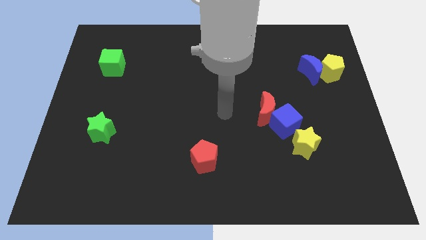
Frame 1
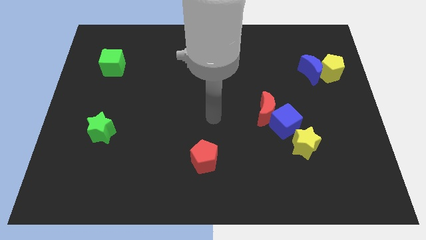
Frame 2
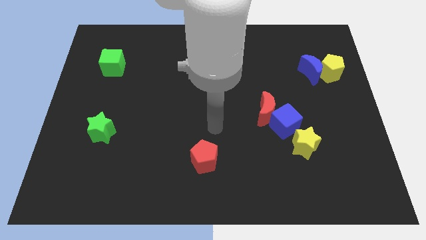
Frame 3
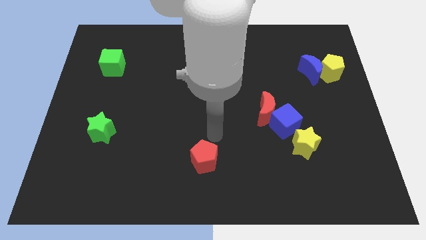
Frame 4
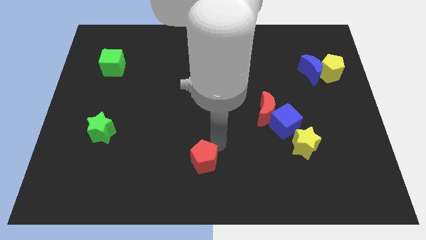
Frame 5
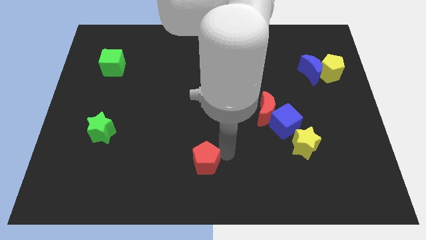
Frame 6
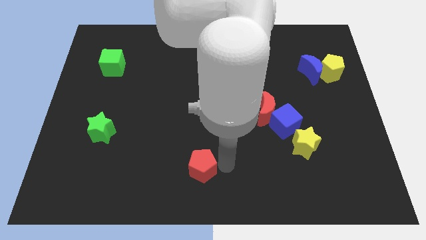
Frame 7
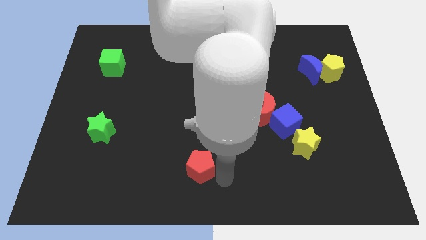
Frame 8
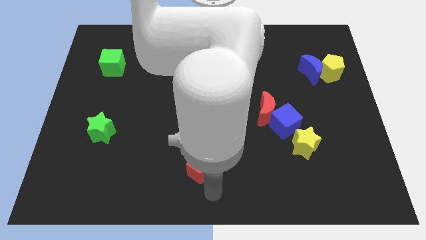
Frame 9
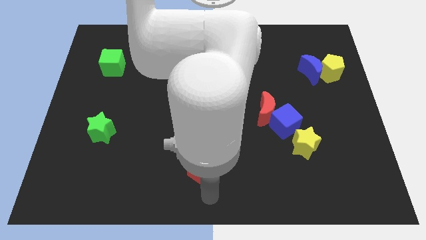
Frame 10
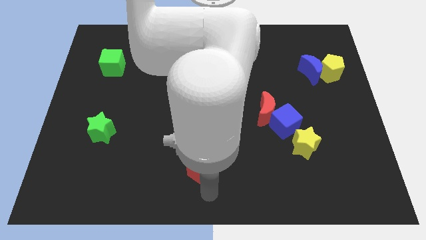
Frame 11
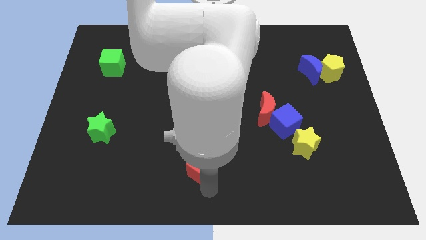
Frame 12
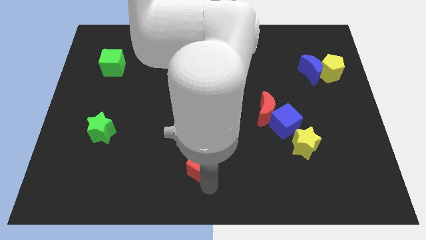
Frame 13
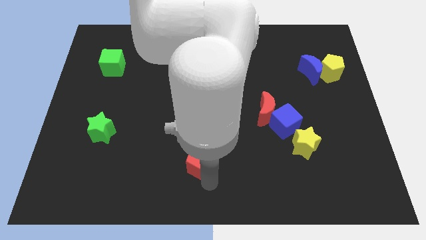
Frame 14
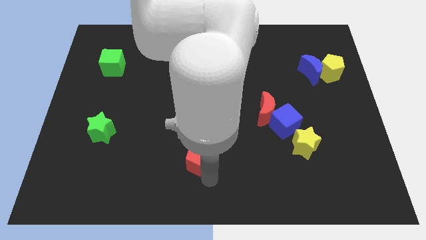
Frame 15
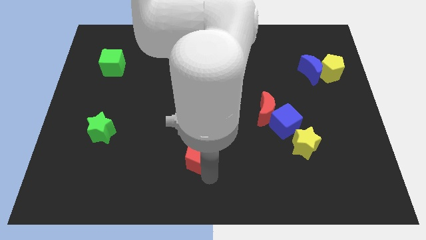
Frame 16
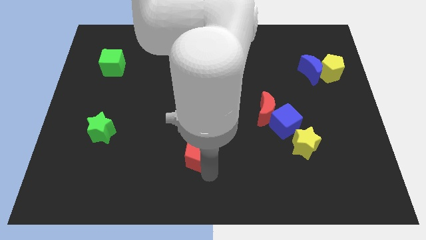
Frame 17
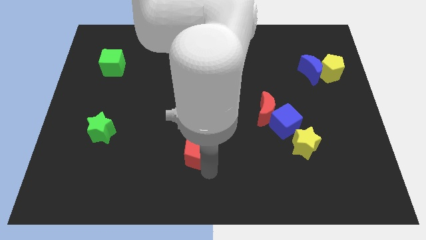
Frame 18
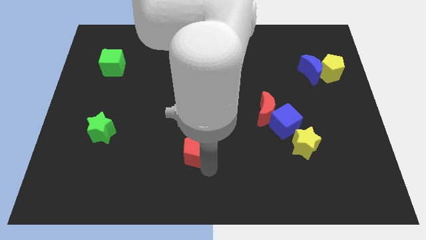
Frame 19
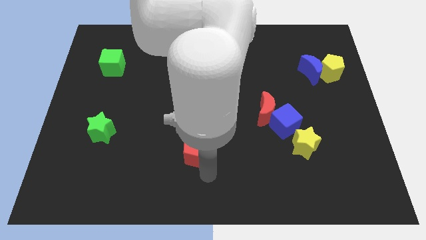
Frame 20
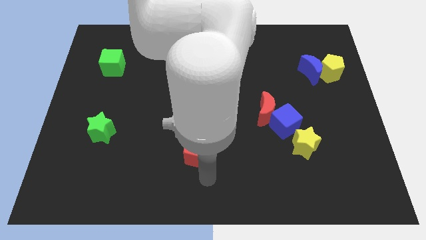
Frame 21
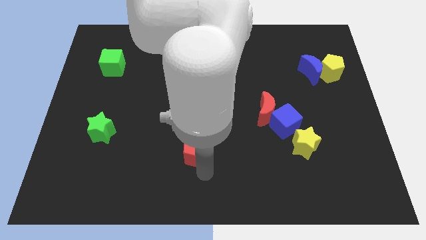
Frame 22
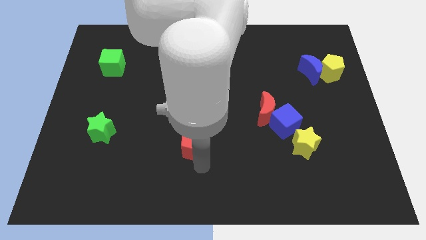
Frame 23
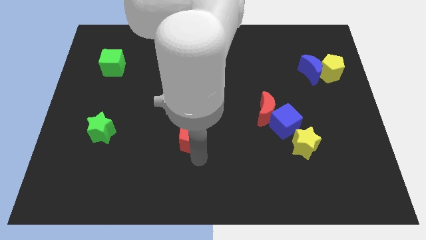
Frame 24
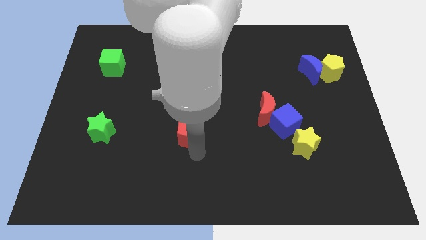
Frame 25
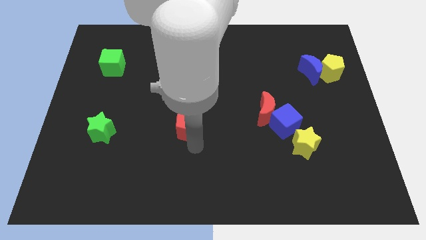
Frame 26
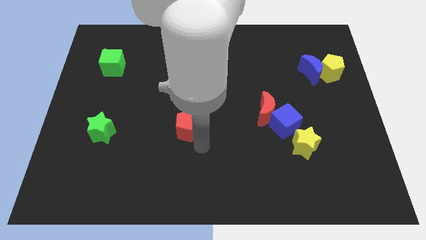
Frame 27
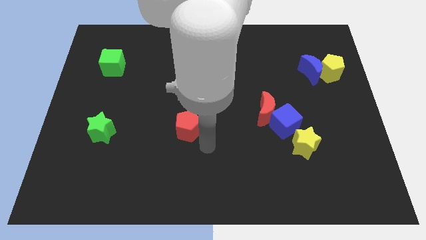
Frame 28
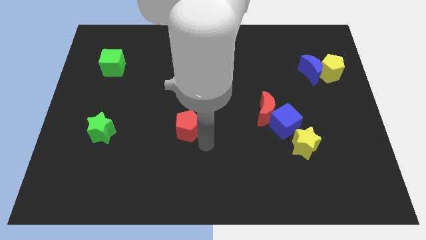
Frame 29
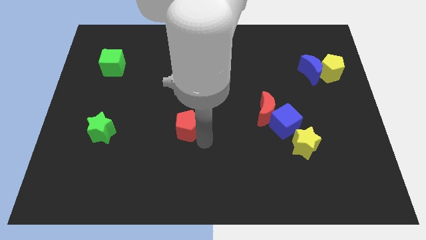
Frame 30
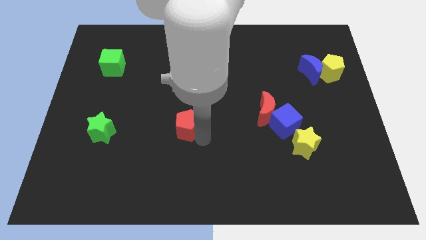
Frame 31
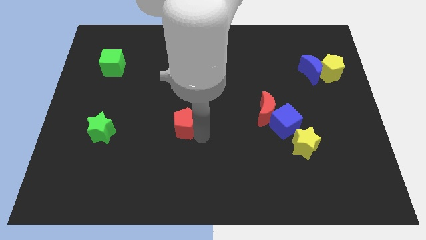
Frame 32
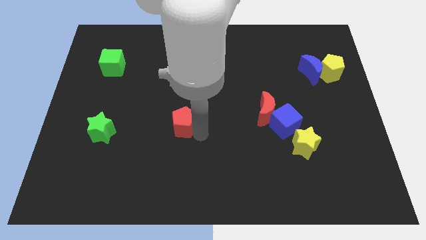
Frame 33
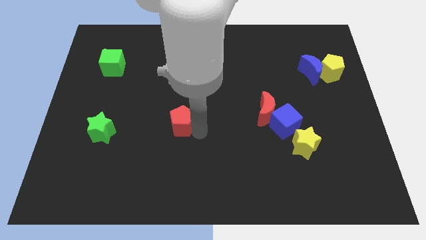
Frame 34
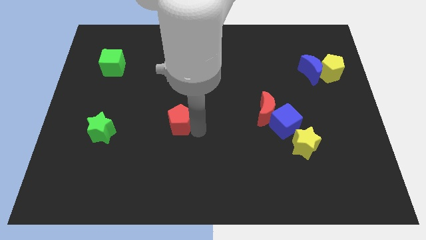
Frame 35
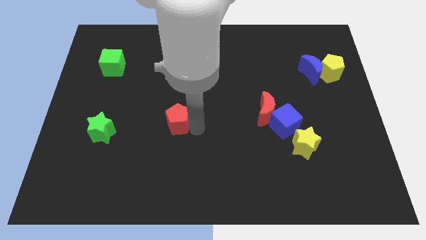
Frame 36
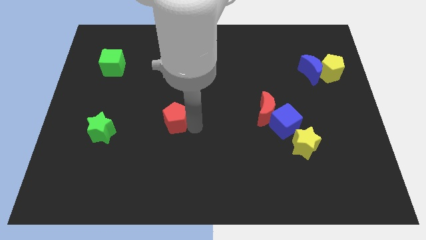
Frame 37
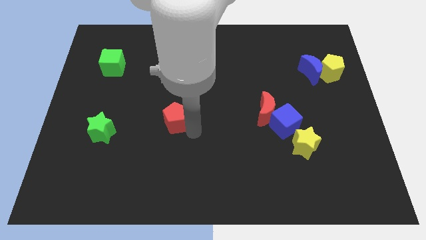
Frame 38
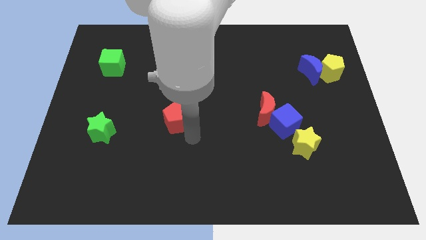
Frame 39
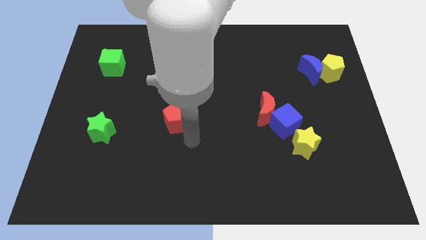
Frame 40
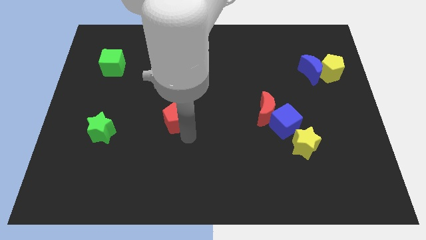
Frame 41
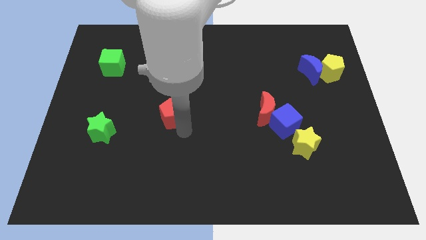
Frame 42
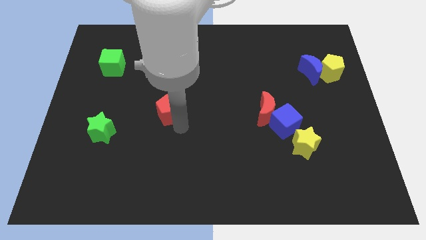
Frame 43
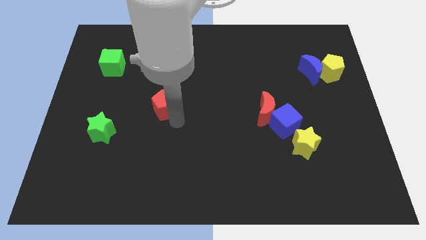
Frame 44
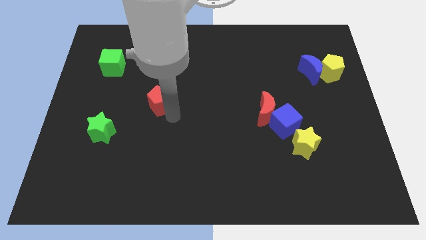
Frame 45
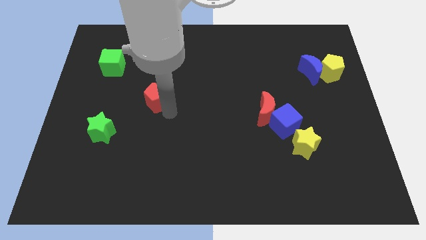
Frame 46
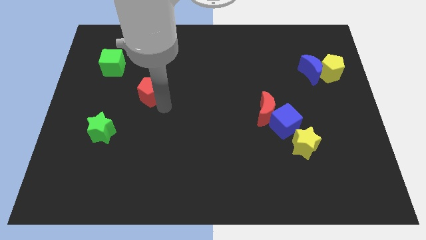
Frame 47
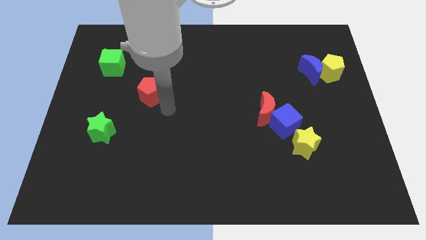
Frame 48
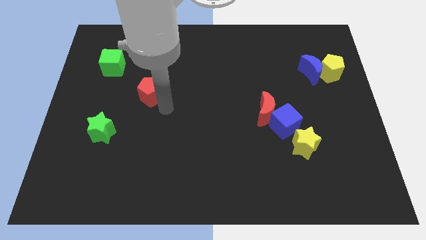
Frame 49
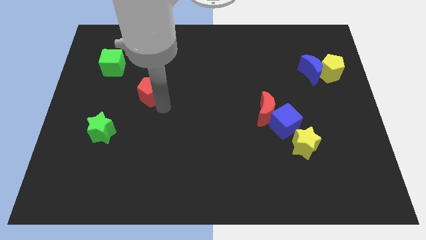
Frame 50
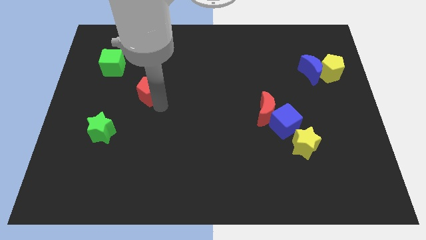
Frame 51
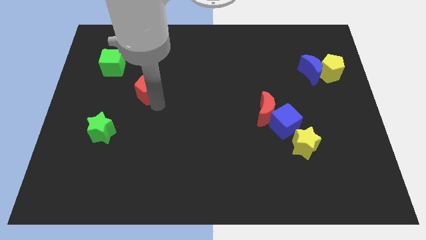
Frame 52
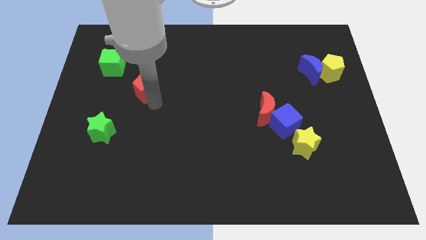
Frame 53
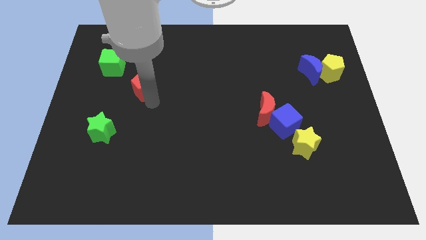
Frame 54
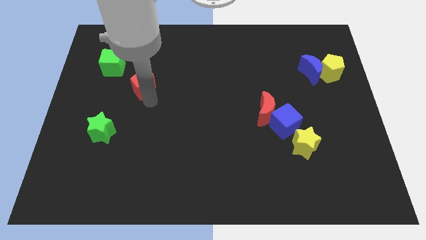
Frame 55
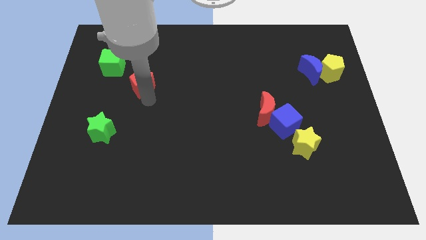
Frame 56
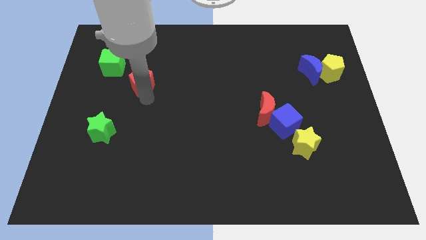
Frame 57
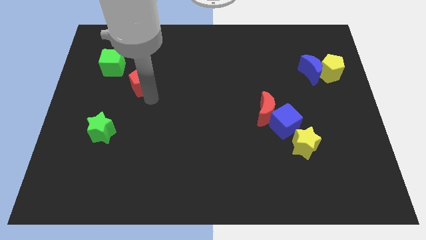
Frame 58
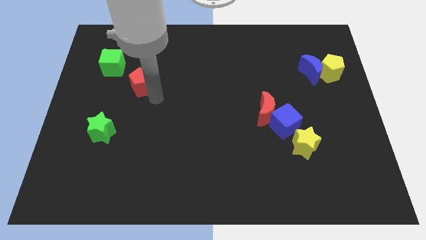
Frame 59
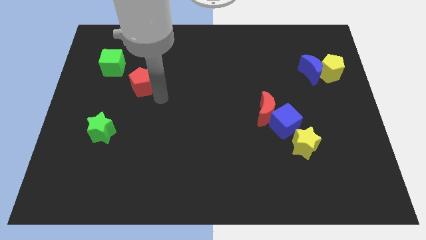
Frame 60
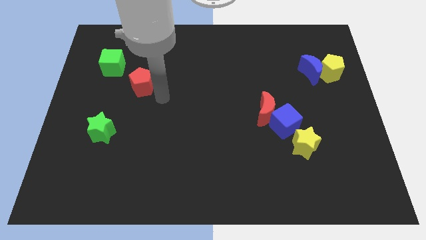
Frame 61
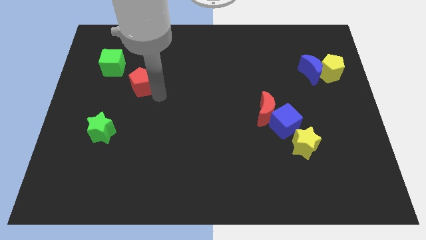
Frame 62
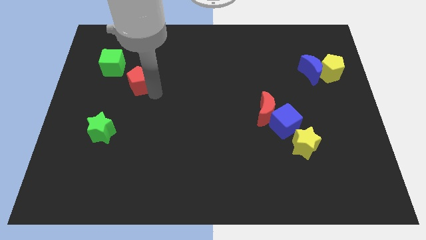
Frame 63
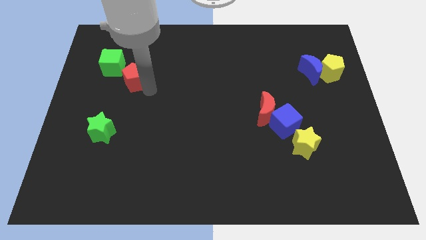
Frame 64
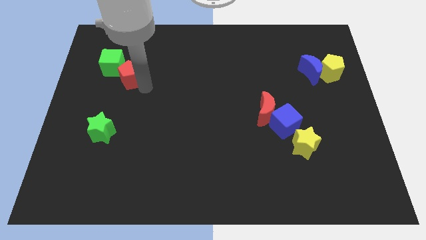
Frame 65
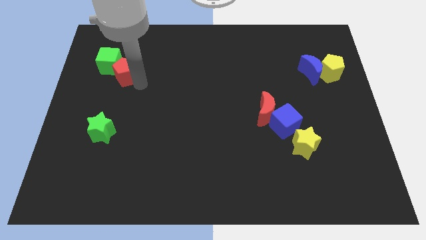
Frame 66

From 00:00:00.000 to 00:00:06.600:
slide the red pentagon to the green cube

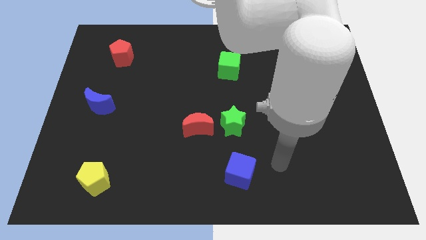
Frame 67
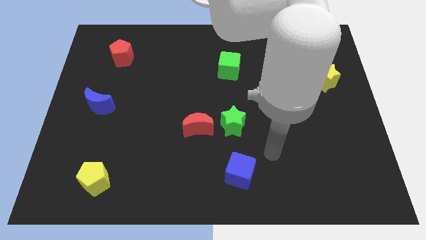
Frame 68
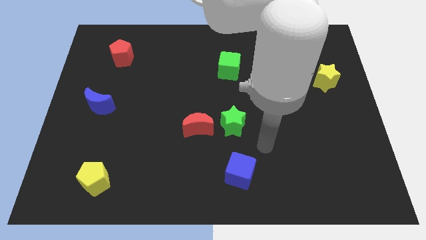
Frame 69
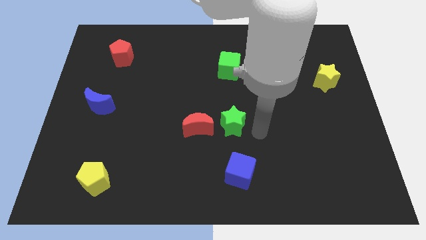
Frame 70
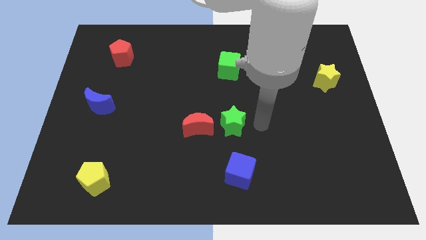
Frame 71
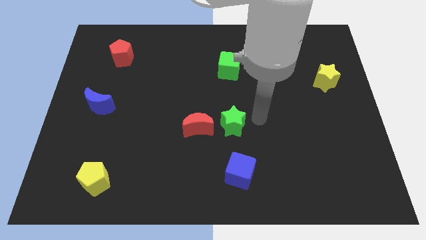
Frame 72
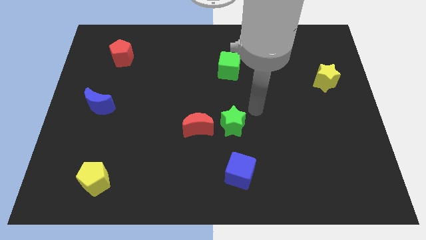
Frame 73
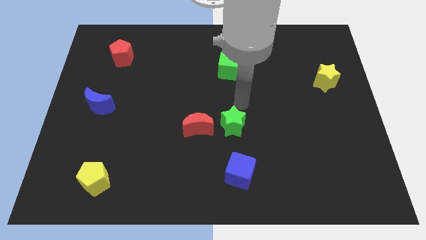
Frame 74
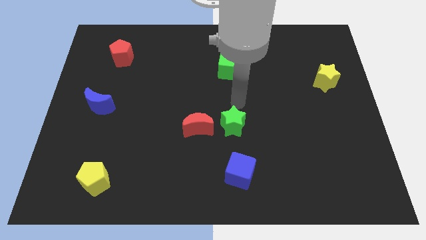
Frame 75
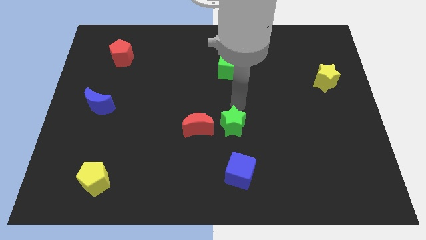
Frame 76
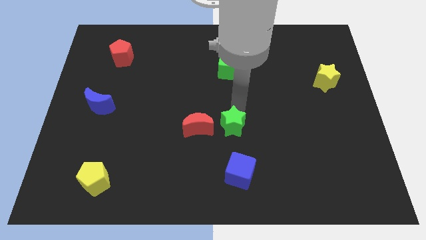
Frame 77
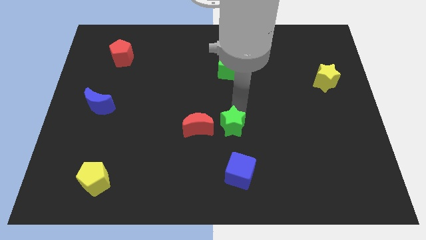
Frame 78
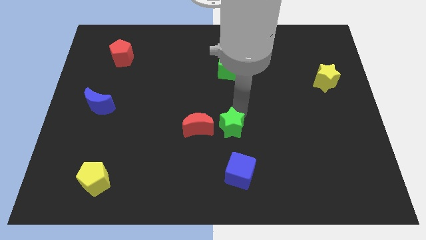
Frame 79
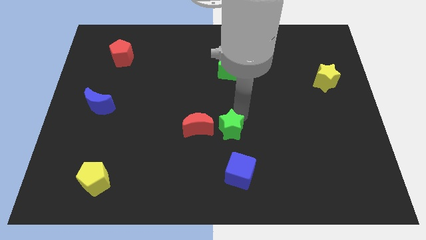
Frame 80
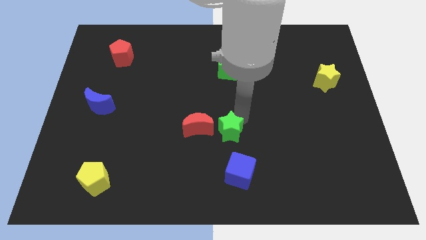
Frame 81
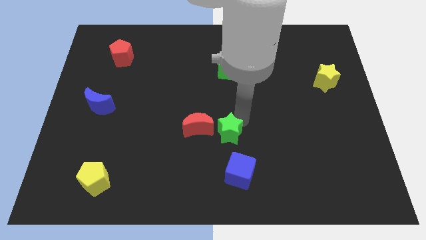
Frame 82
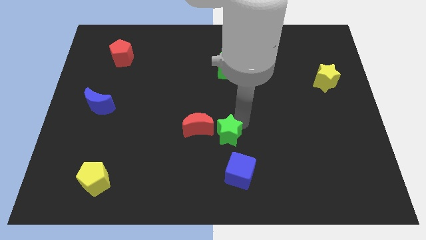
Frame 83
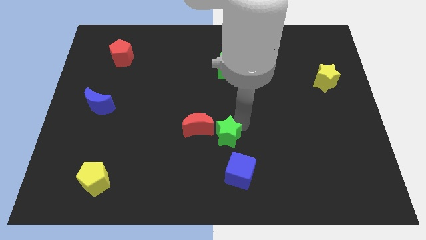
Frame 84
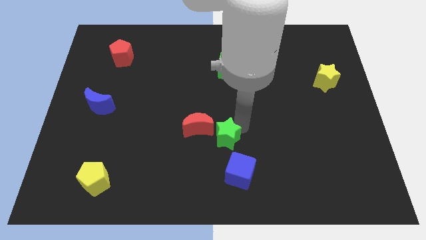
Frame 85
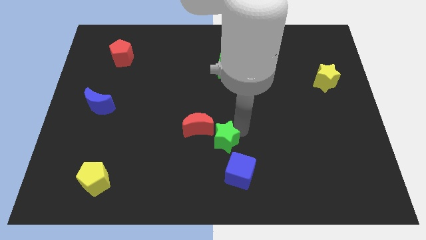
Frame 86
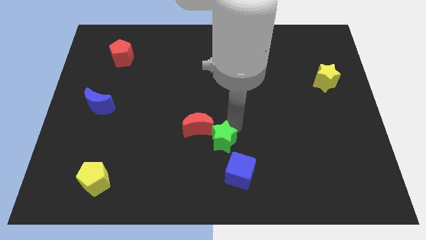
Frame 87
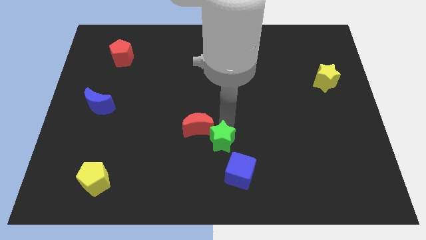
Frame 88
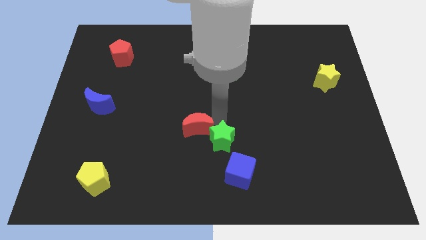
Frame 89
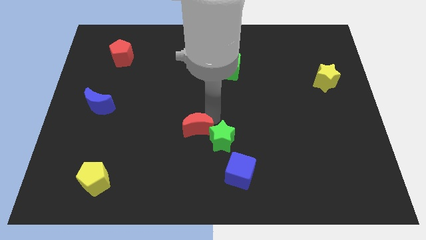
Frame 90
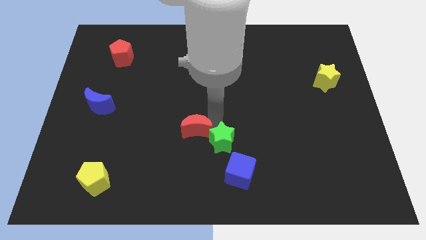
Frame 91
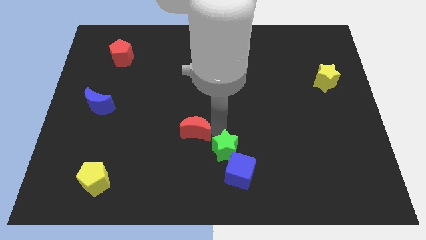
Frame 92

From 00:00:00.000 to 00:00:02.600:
slide the green star next to the blue cube
